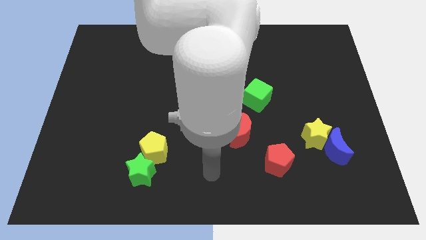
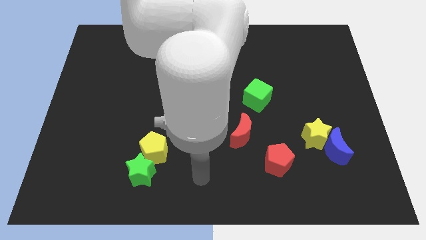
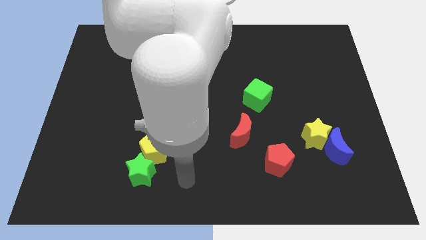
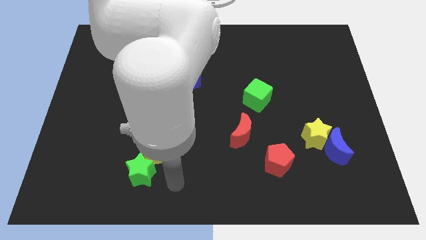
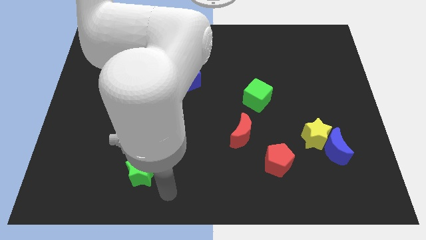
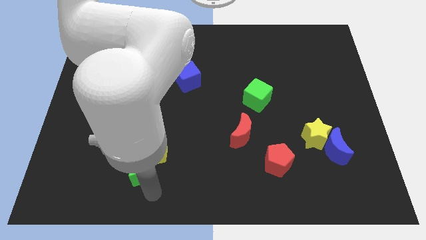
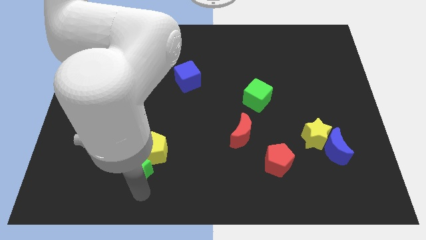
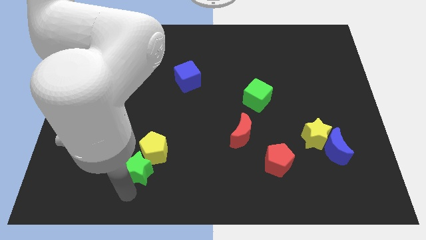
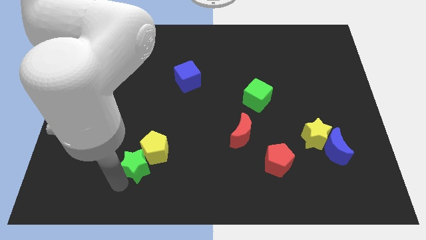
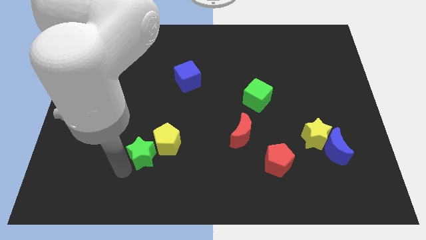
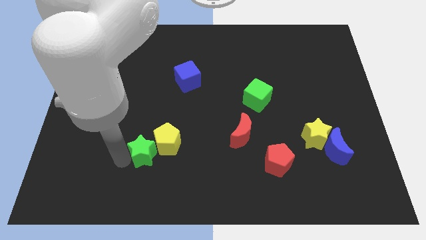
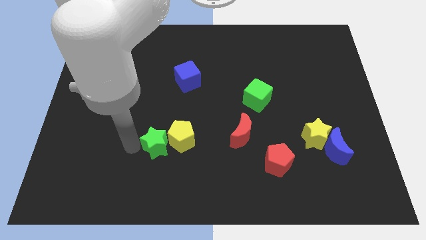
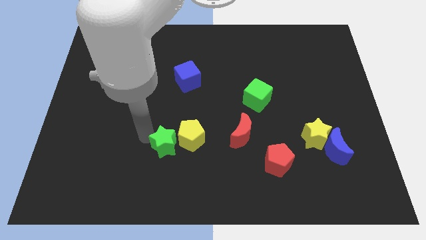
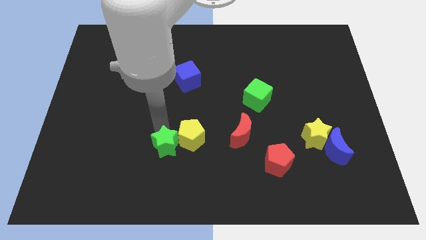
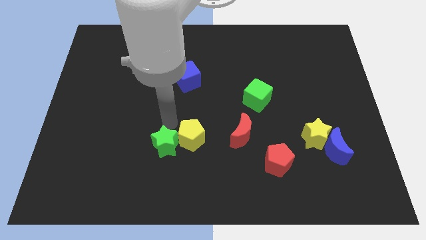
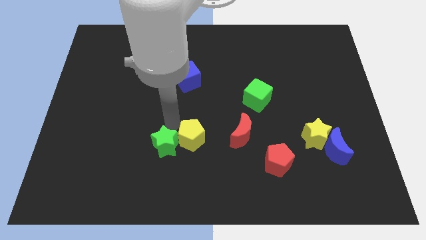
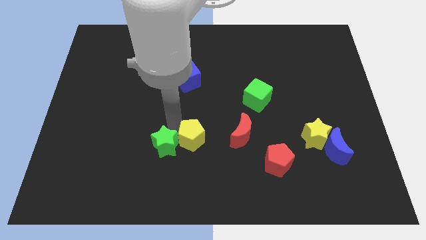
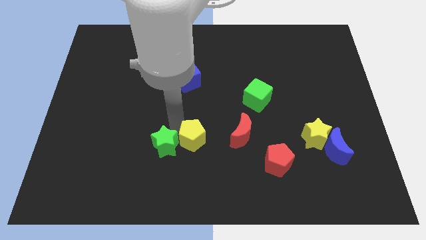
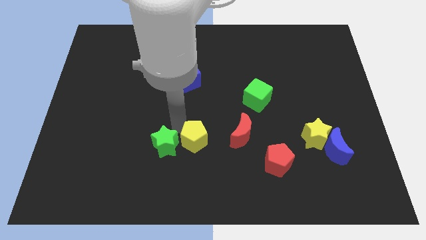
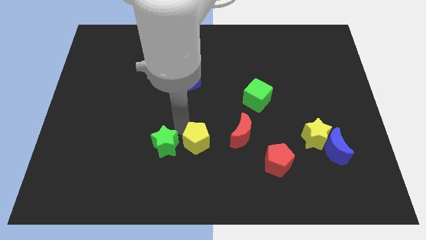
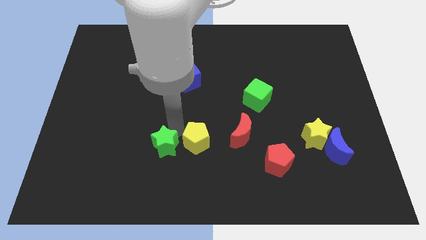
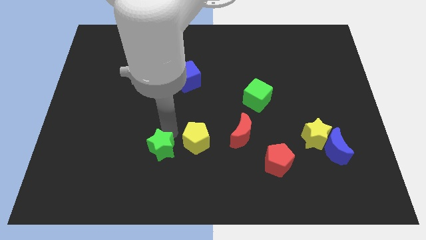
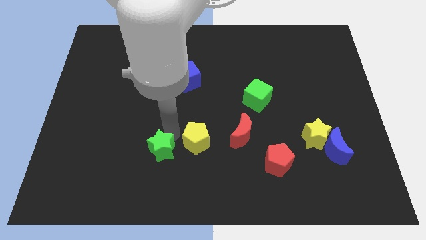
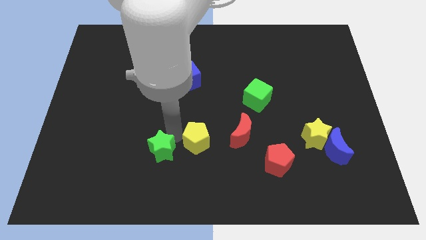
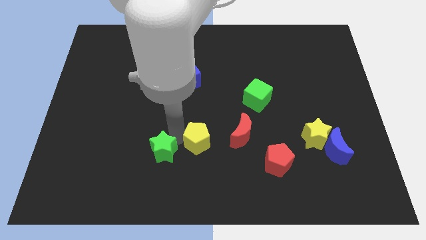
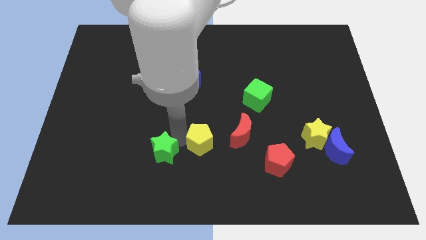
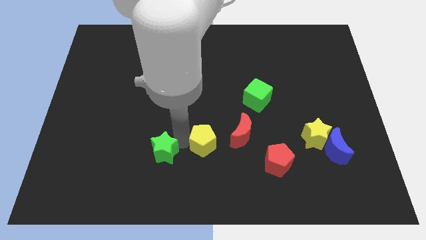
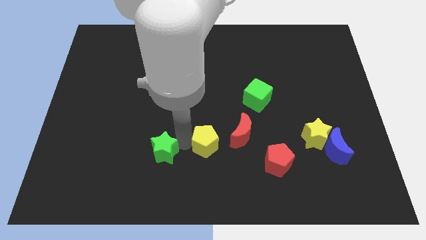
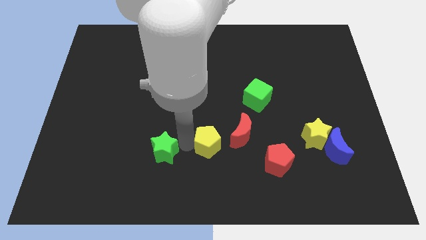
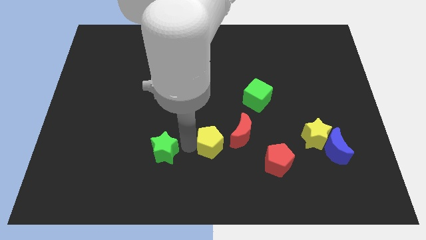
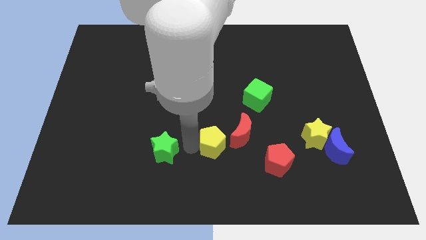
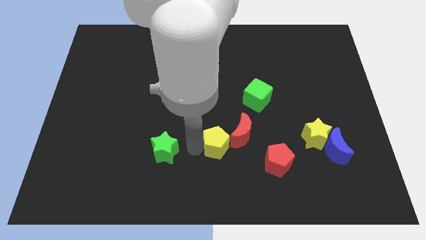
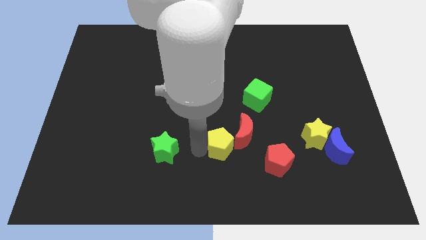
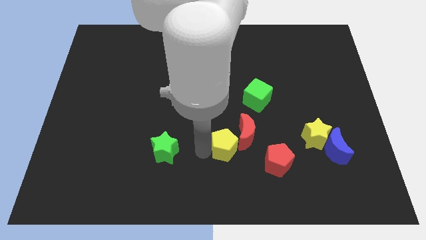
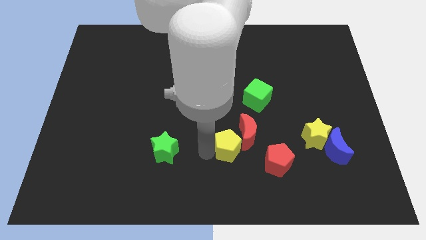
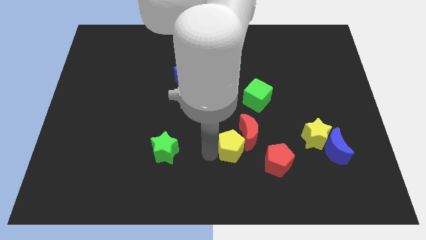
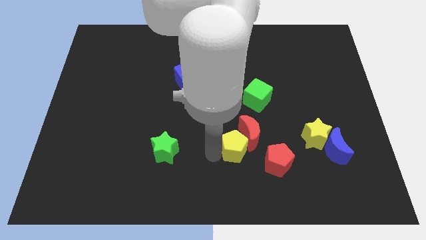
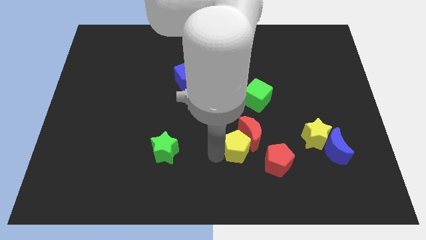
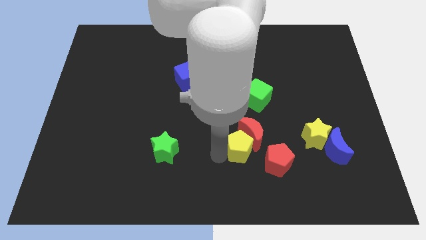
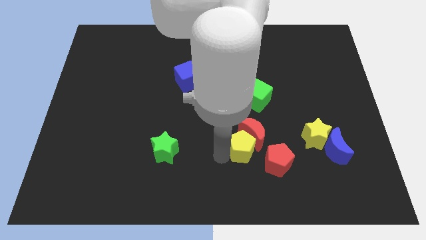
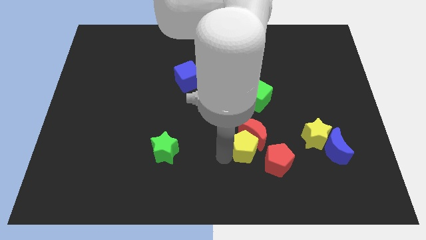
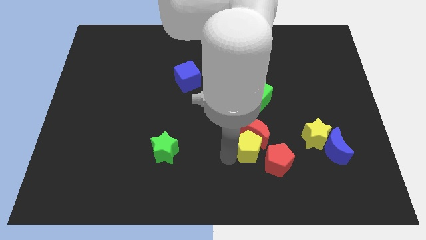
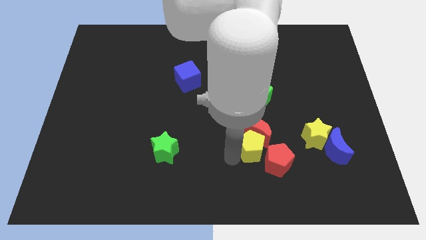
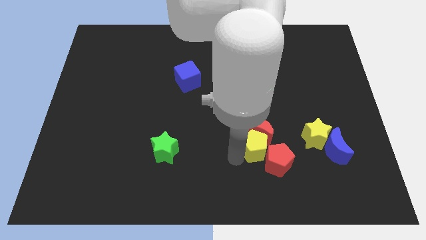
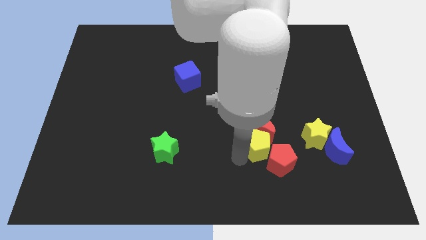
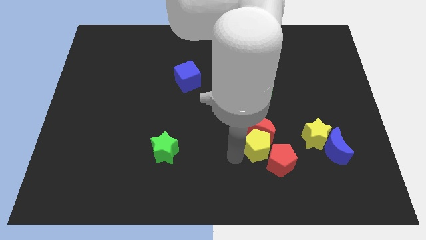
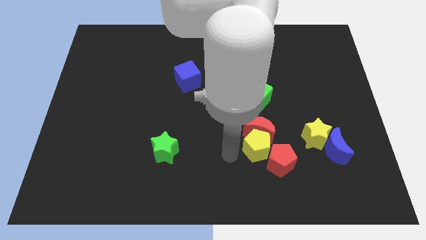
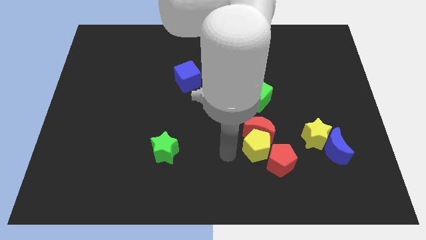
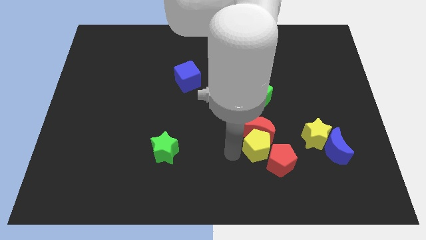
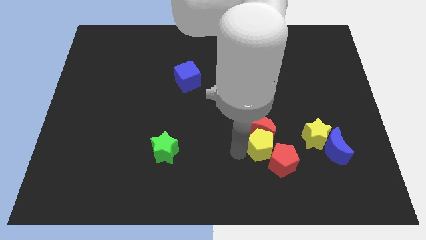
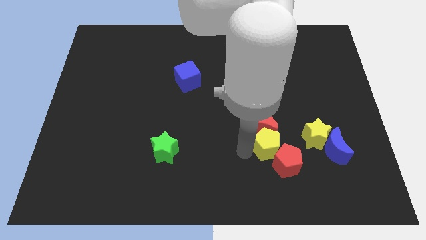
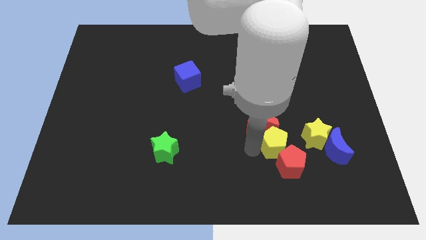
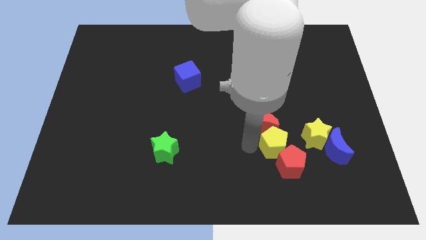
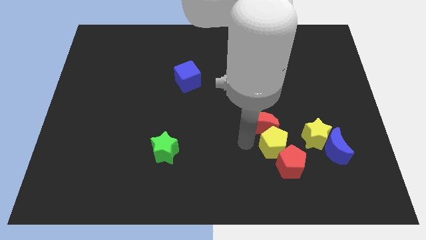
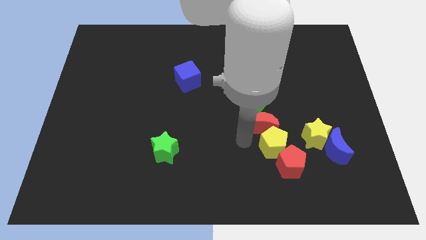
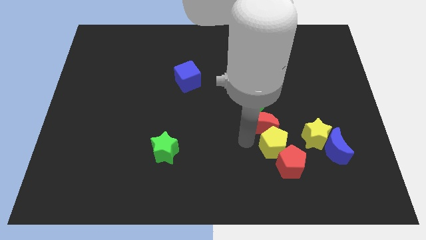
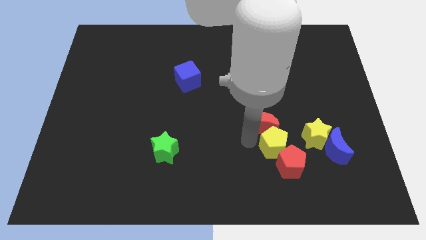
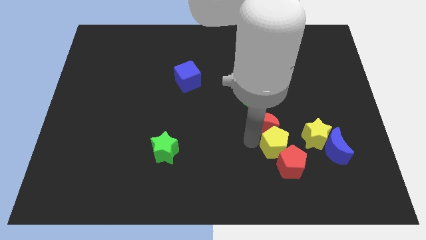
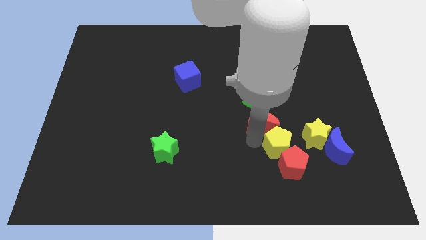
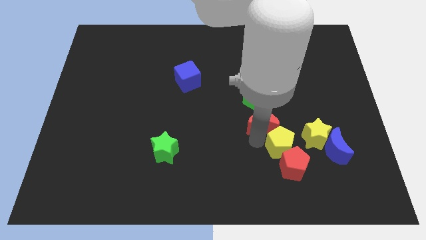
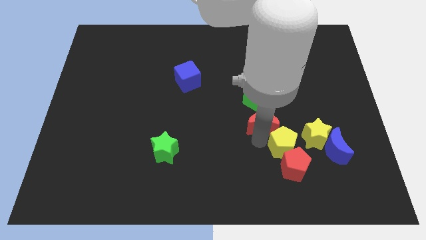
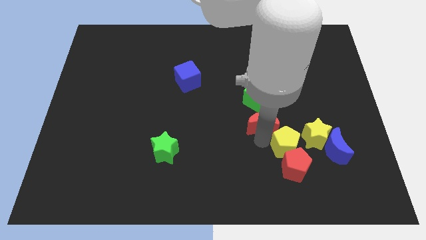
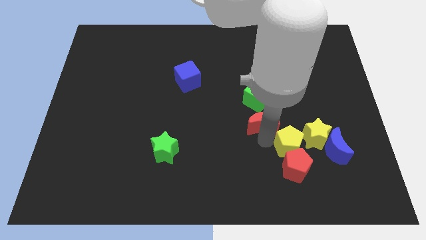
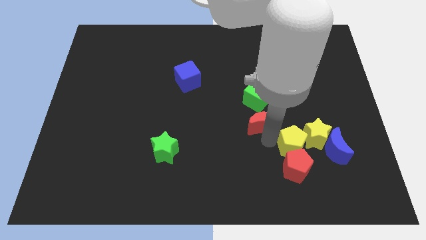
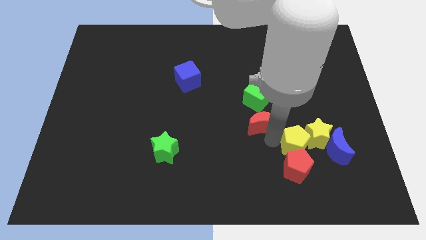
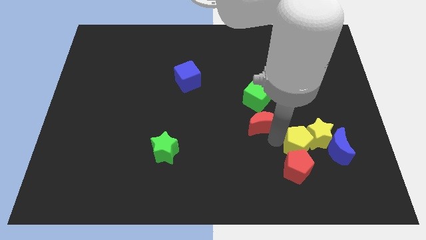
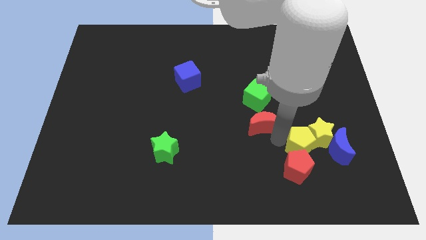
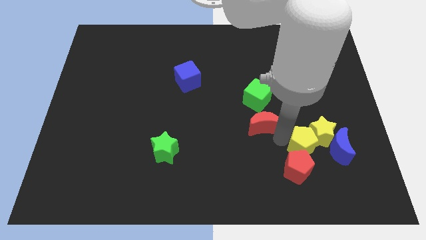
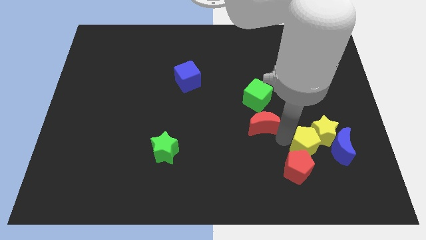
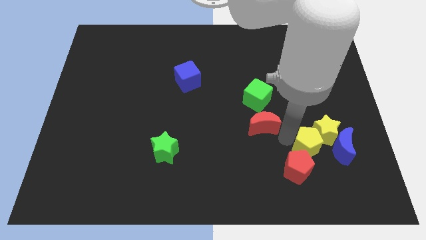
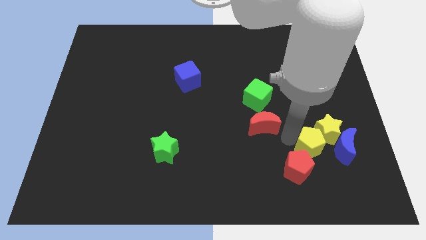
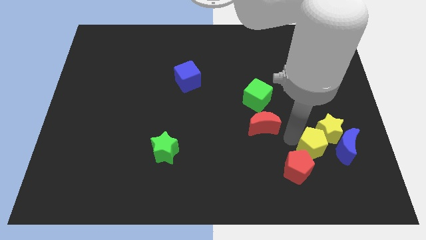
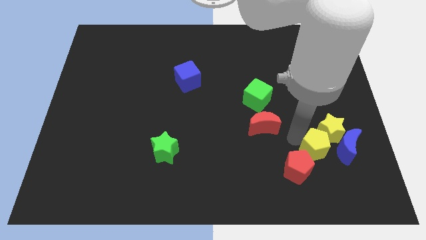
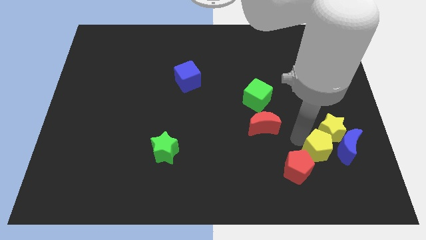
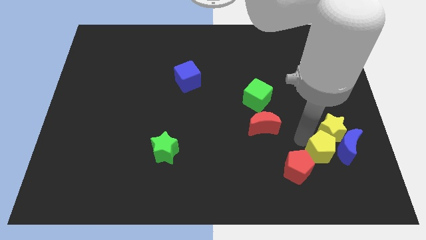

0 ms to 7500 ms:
slide the yellow pentagon to the blue moon
